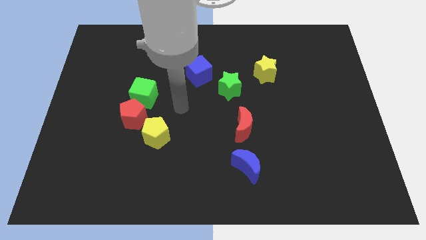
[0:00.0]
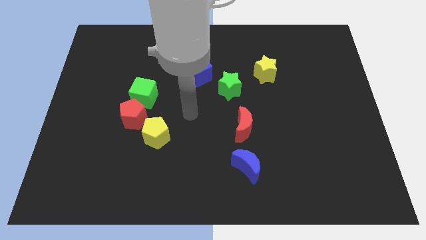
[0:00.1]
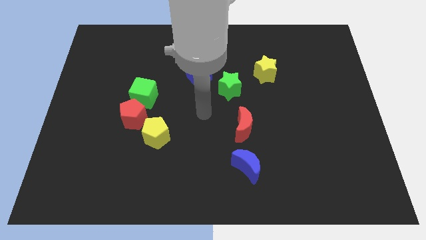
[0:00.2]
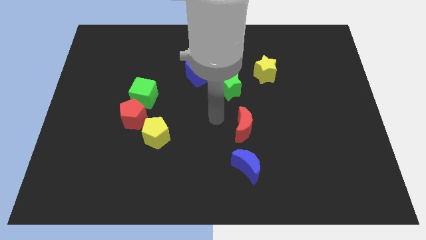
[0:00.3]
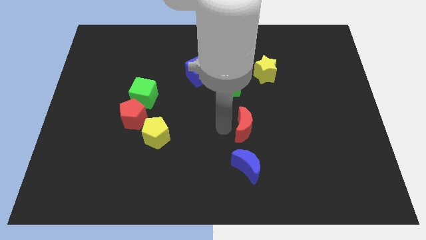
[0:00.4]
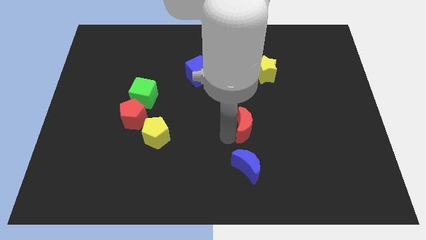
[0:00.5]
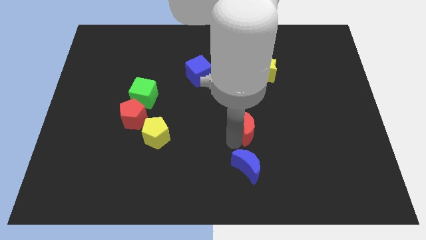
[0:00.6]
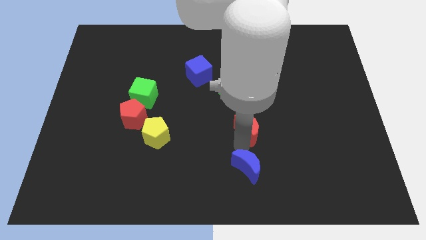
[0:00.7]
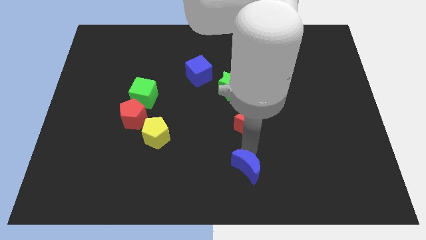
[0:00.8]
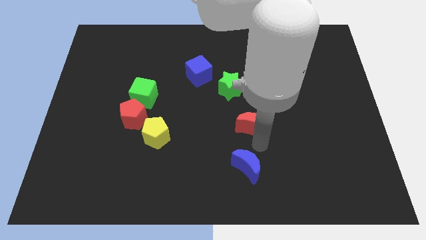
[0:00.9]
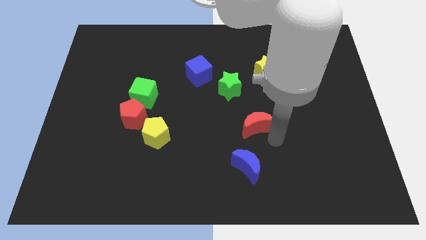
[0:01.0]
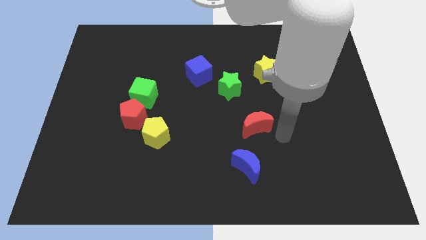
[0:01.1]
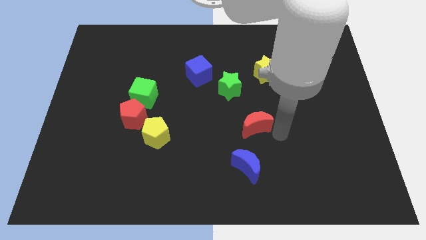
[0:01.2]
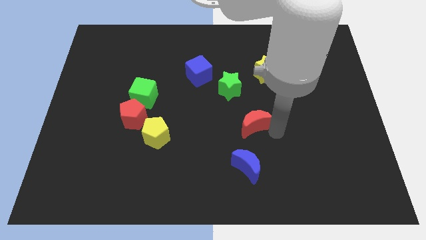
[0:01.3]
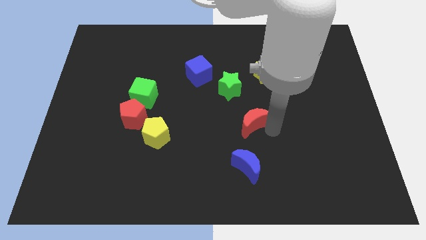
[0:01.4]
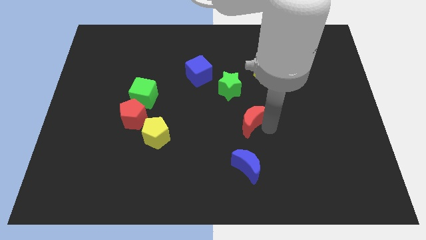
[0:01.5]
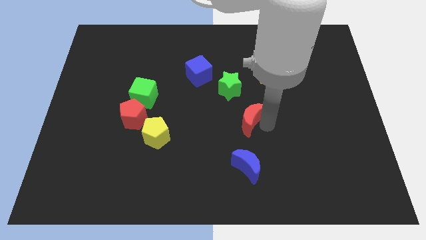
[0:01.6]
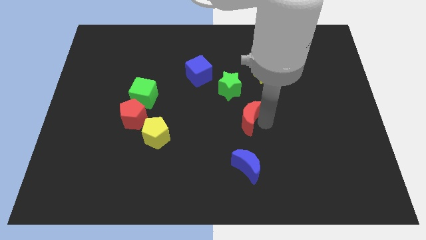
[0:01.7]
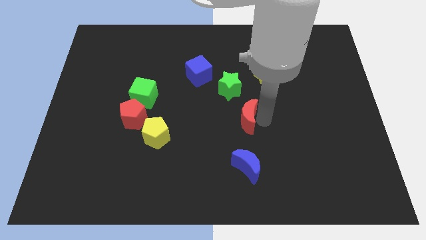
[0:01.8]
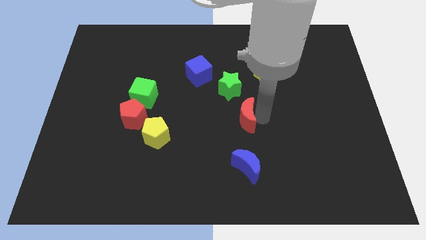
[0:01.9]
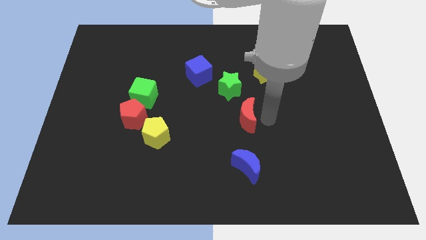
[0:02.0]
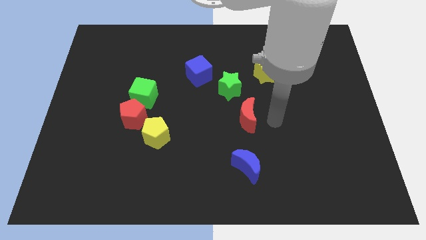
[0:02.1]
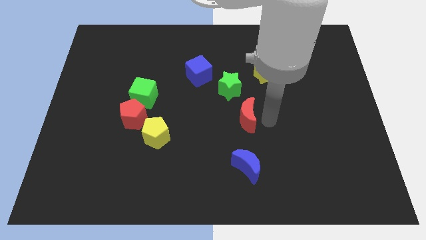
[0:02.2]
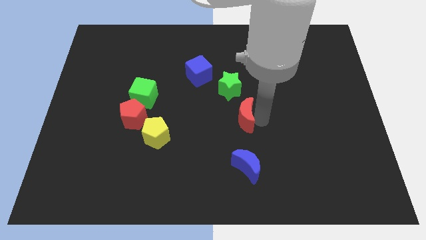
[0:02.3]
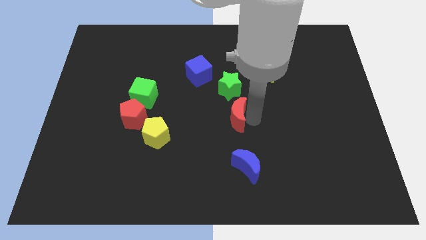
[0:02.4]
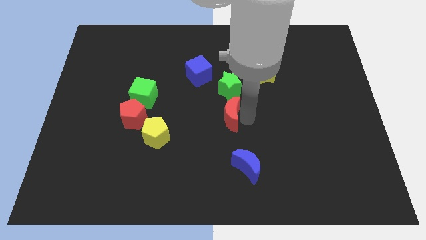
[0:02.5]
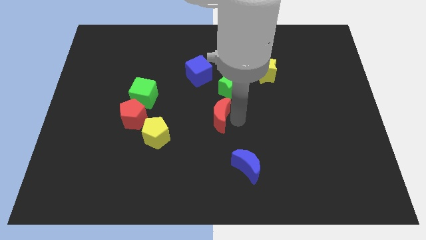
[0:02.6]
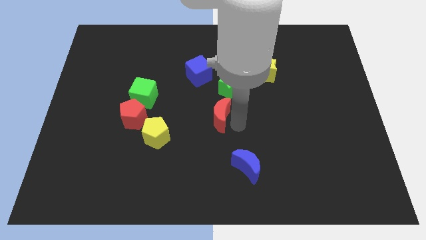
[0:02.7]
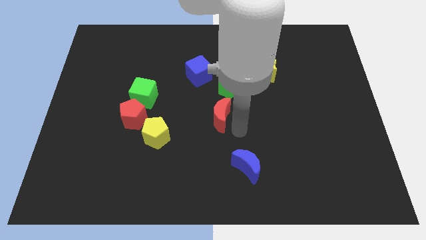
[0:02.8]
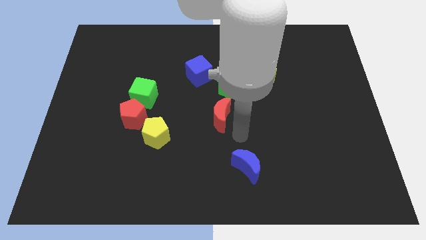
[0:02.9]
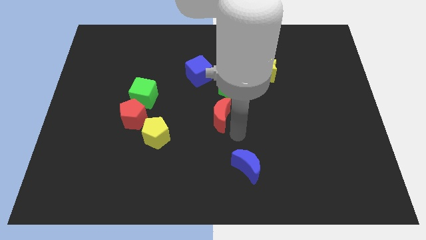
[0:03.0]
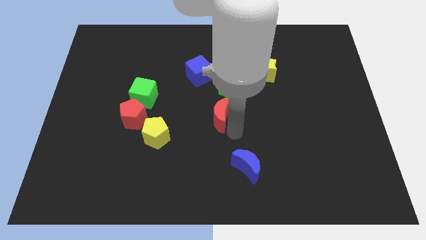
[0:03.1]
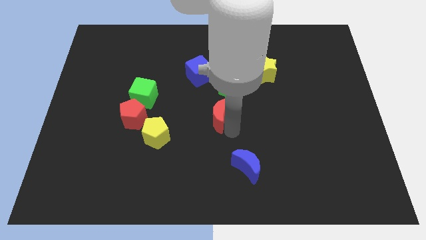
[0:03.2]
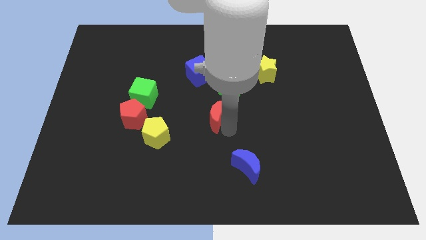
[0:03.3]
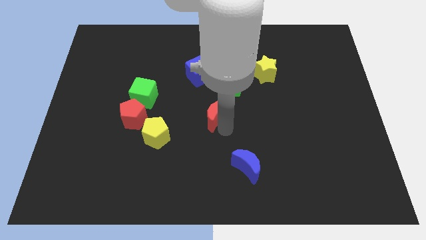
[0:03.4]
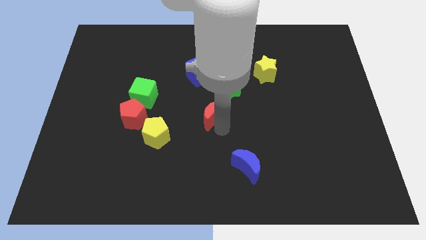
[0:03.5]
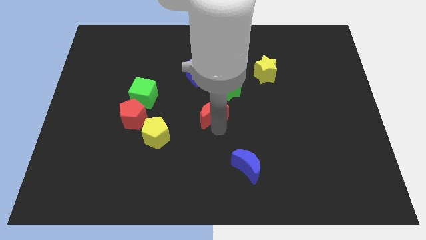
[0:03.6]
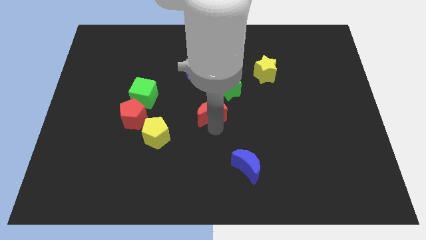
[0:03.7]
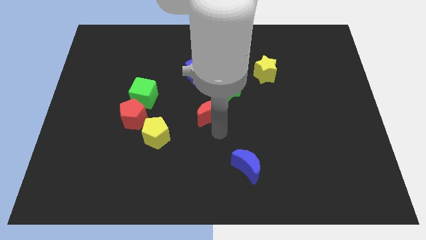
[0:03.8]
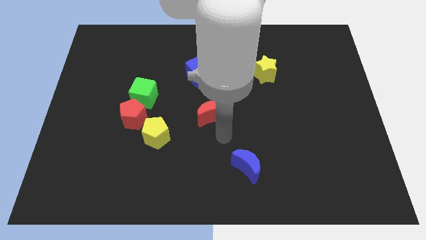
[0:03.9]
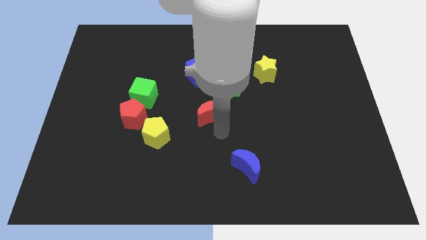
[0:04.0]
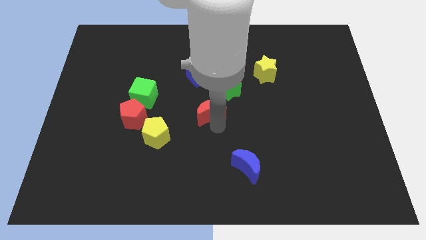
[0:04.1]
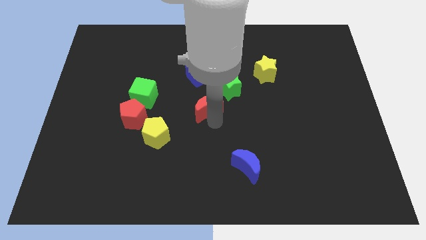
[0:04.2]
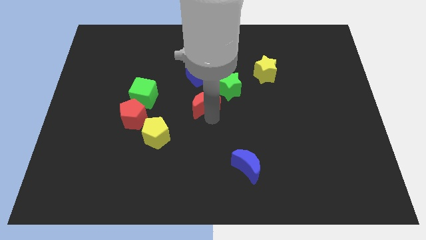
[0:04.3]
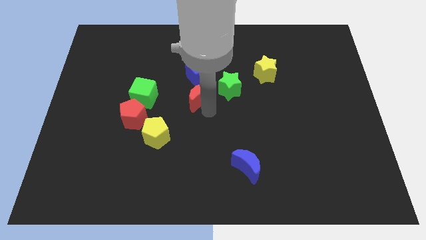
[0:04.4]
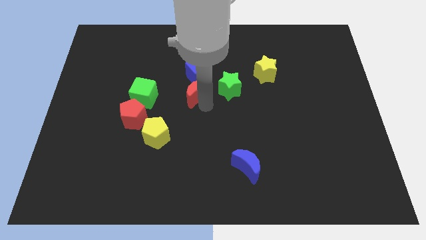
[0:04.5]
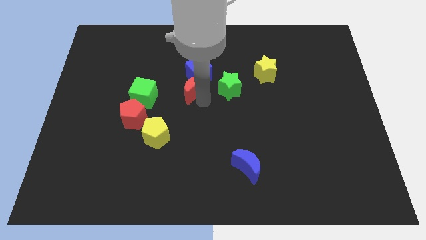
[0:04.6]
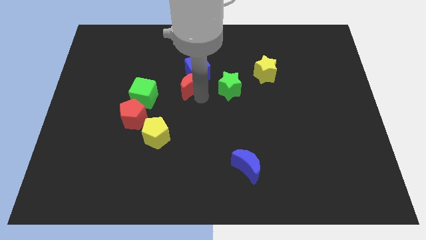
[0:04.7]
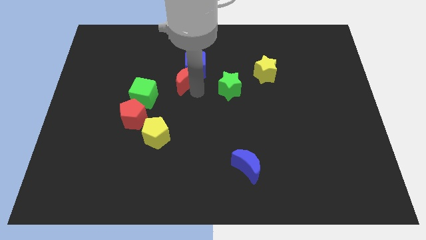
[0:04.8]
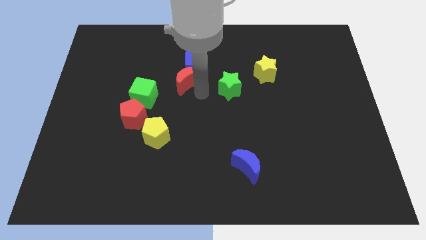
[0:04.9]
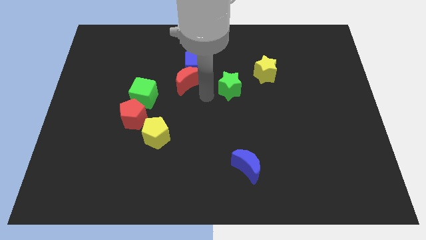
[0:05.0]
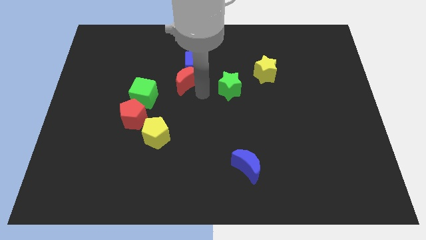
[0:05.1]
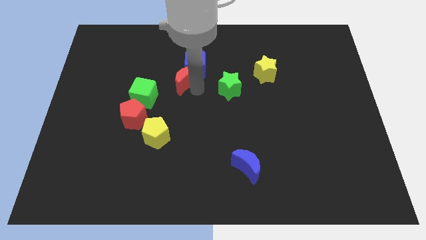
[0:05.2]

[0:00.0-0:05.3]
push the red moon diagonally up and to the left

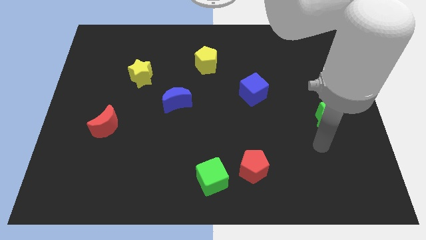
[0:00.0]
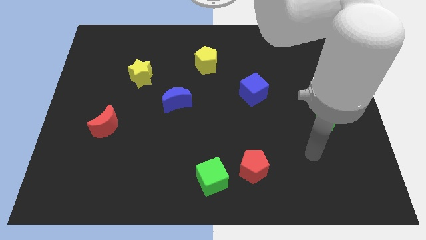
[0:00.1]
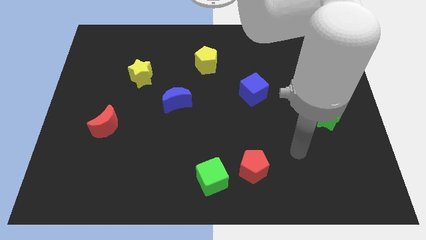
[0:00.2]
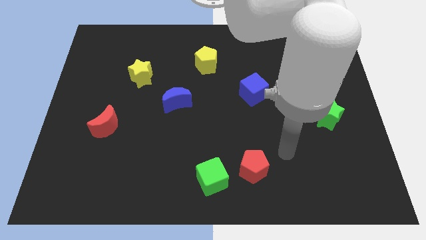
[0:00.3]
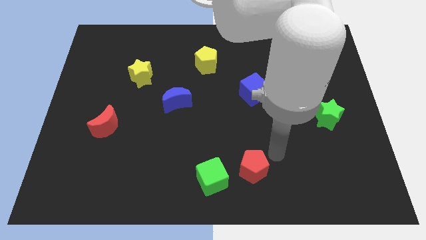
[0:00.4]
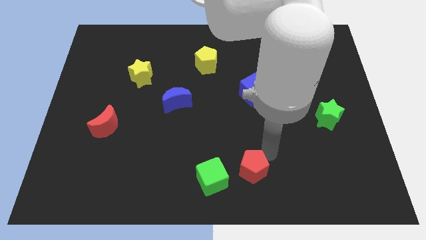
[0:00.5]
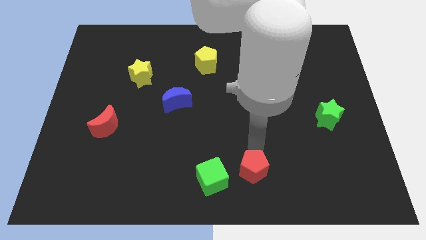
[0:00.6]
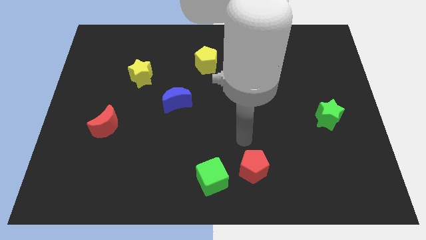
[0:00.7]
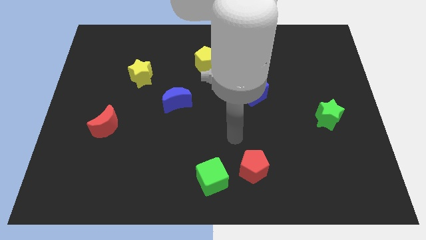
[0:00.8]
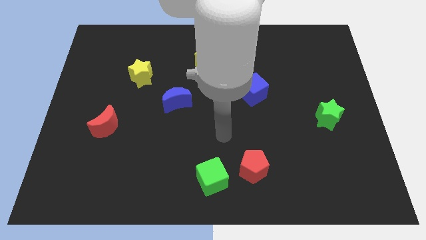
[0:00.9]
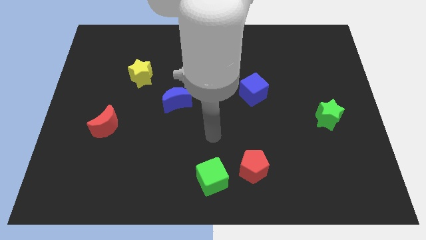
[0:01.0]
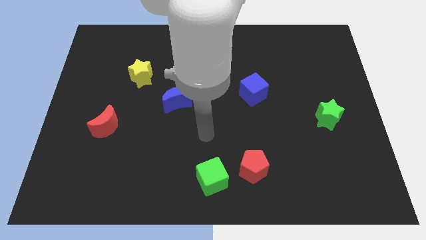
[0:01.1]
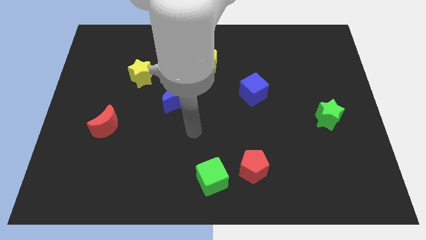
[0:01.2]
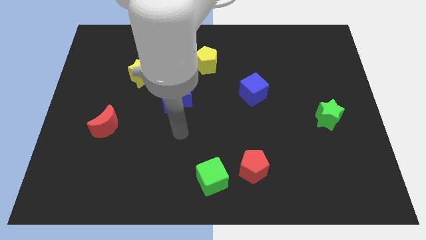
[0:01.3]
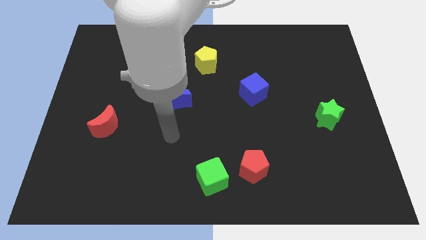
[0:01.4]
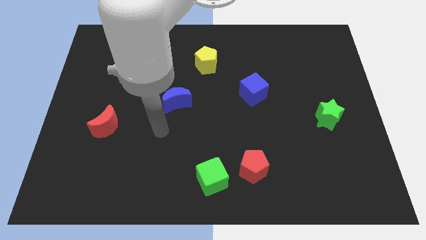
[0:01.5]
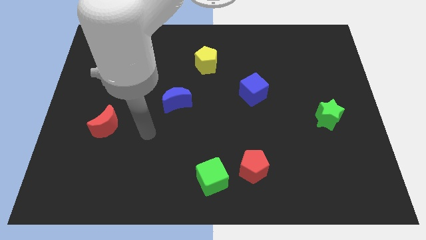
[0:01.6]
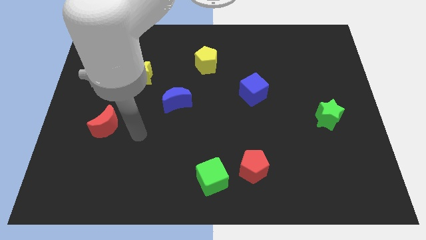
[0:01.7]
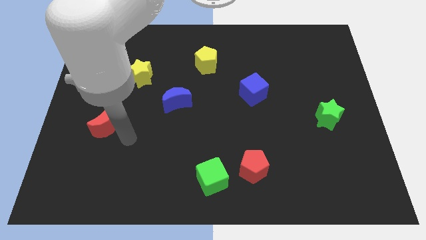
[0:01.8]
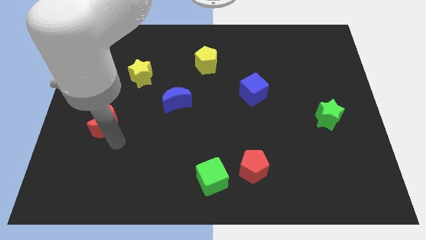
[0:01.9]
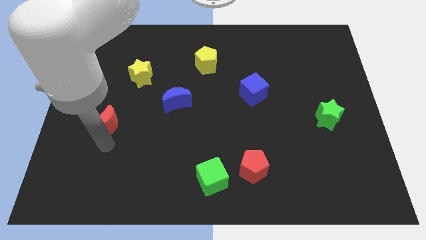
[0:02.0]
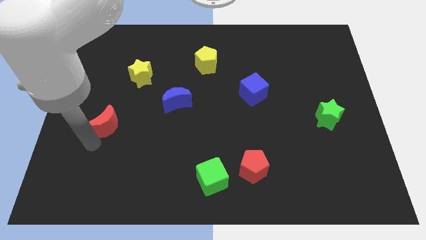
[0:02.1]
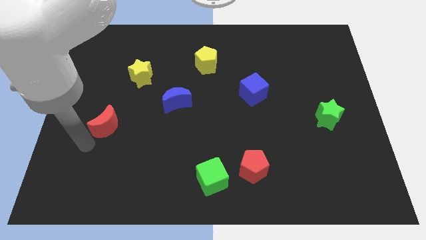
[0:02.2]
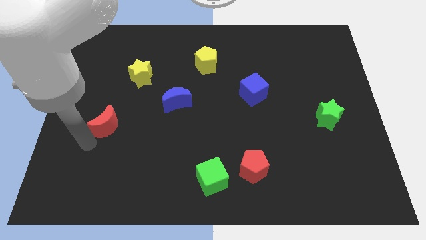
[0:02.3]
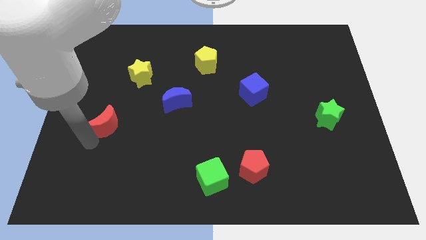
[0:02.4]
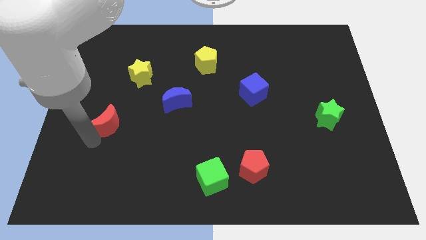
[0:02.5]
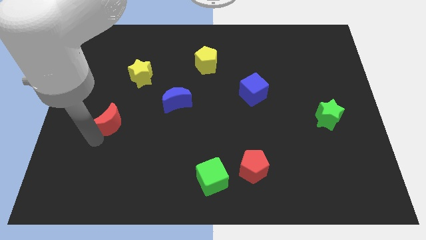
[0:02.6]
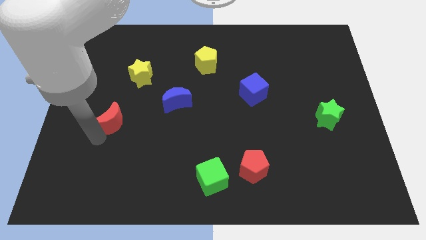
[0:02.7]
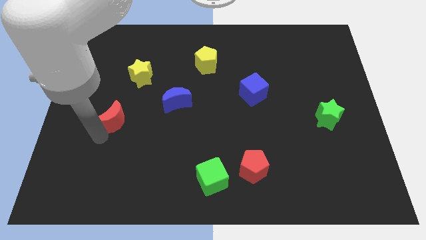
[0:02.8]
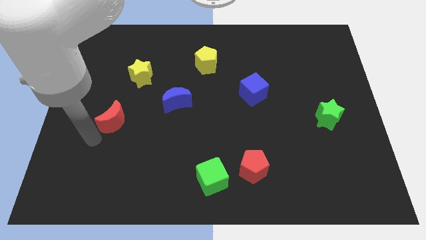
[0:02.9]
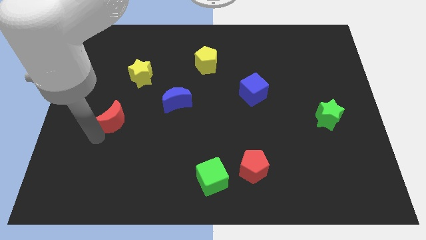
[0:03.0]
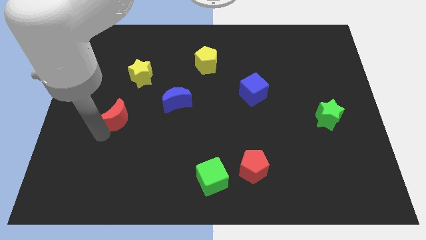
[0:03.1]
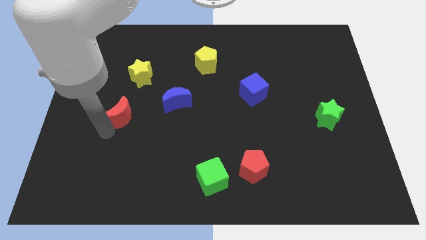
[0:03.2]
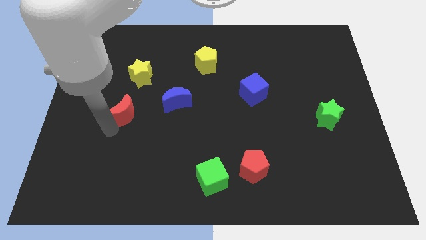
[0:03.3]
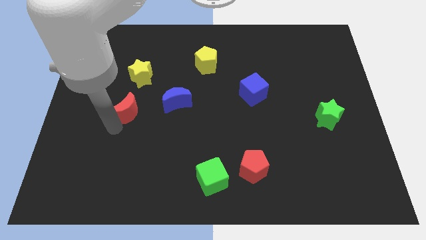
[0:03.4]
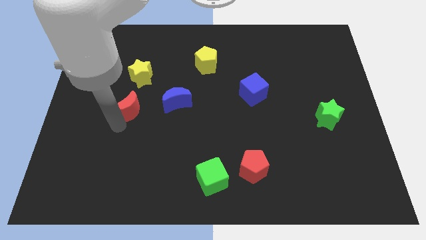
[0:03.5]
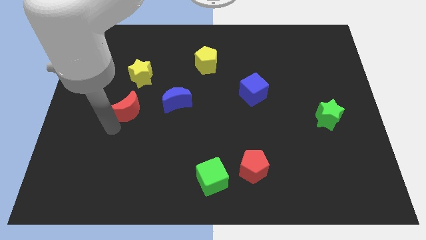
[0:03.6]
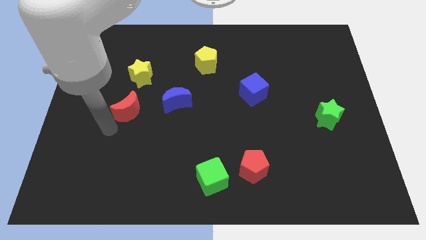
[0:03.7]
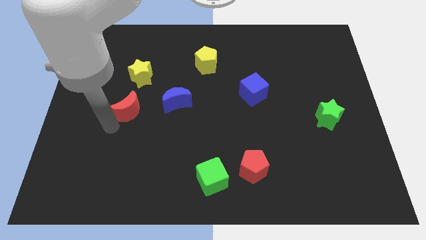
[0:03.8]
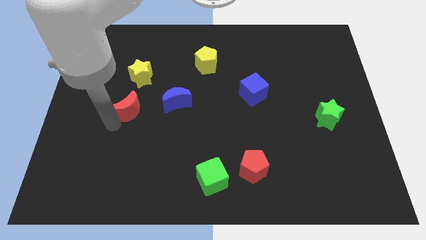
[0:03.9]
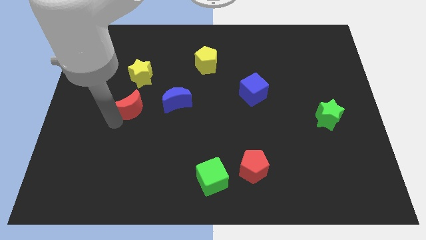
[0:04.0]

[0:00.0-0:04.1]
move the red moon up and right slightly
